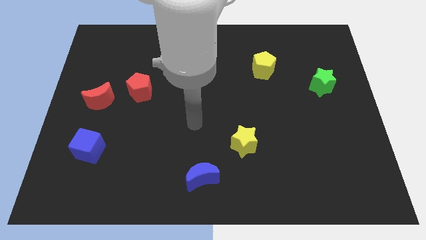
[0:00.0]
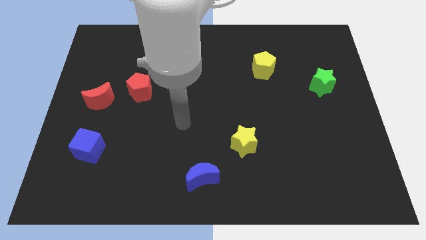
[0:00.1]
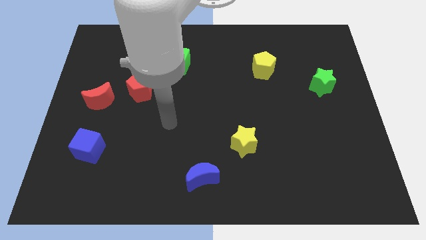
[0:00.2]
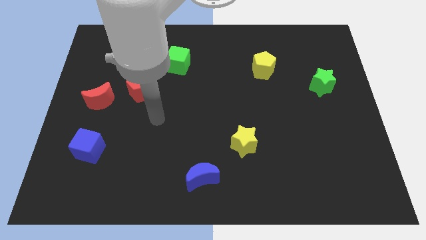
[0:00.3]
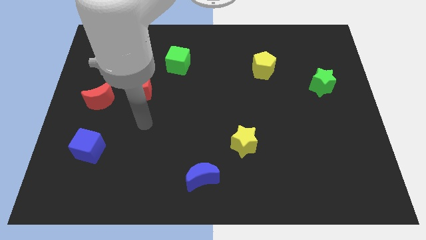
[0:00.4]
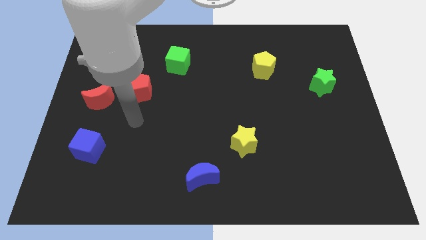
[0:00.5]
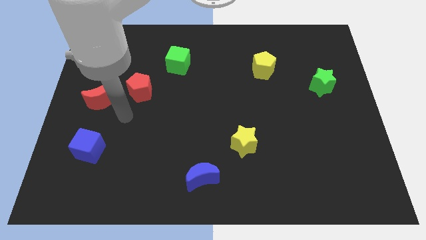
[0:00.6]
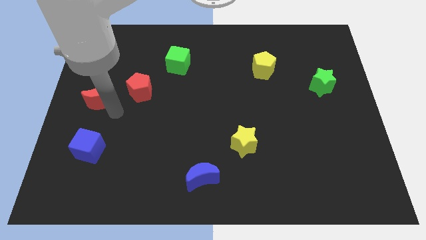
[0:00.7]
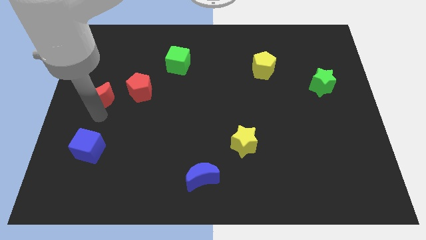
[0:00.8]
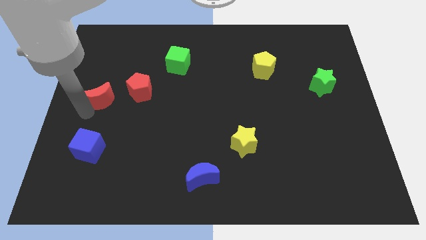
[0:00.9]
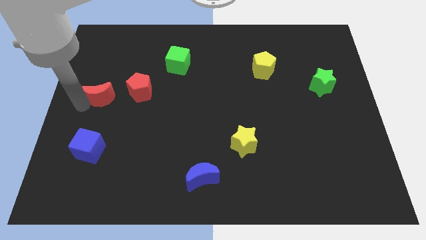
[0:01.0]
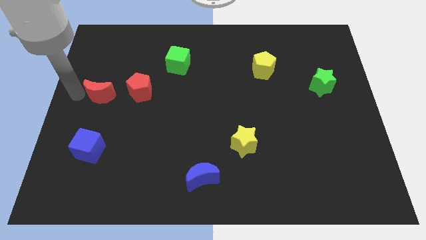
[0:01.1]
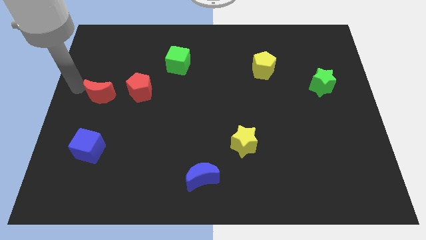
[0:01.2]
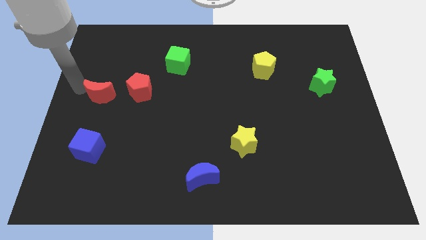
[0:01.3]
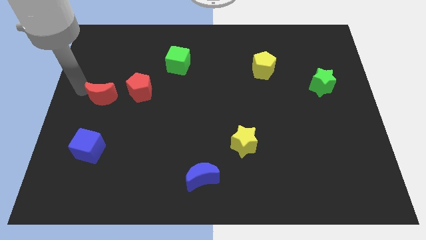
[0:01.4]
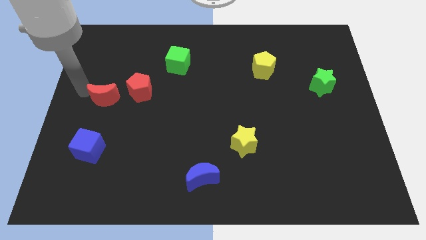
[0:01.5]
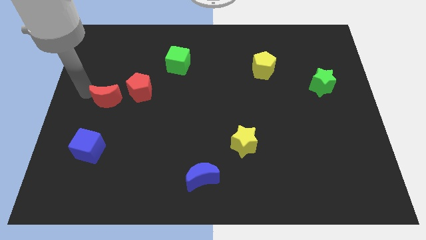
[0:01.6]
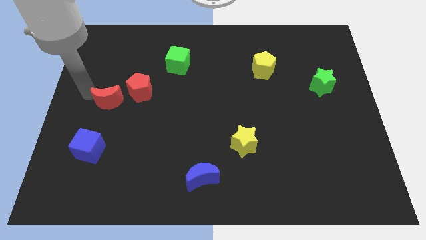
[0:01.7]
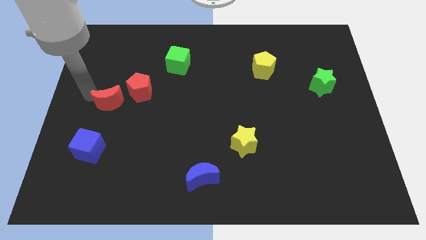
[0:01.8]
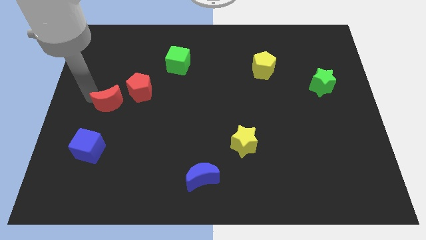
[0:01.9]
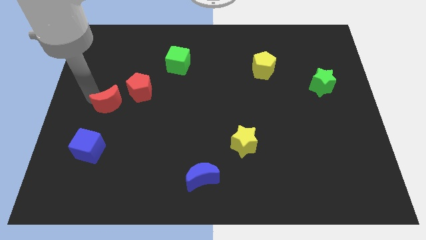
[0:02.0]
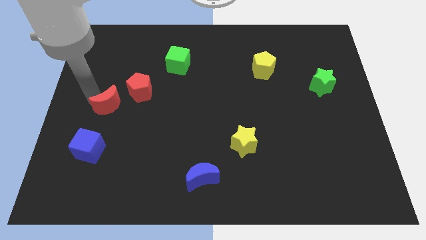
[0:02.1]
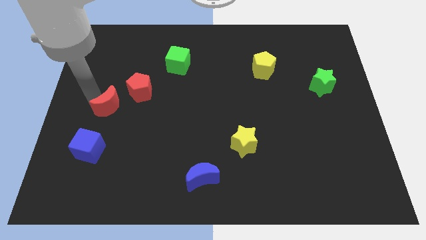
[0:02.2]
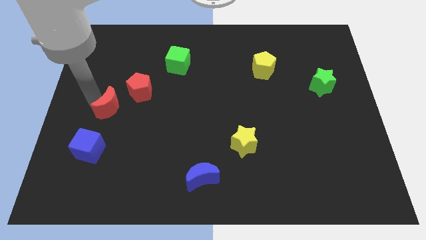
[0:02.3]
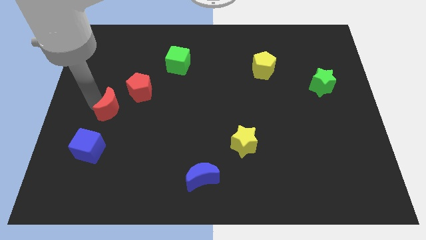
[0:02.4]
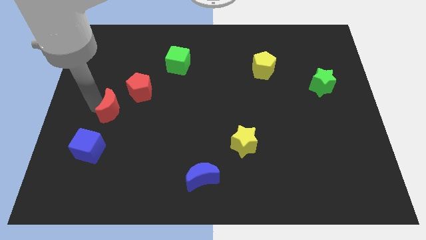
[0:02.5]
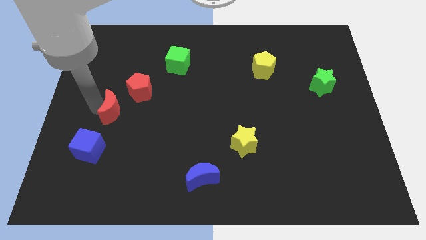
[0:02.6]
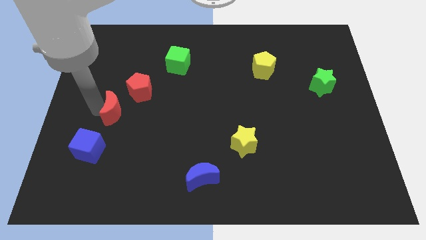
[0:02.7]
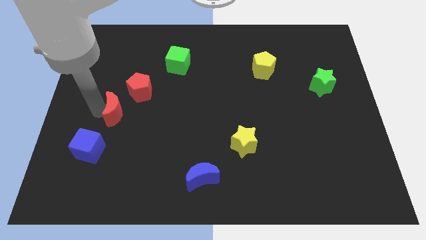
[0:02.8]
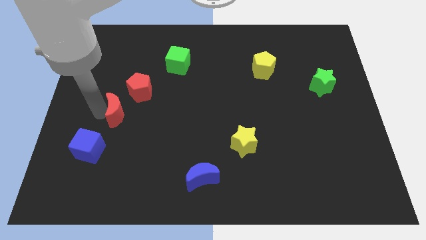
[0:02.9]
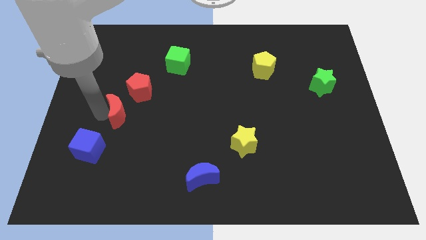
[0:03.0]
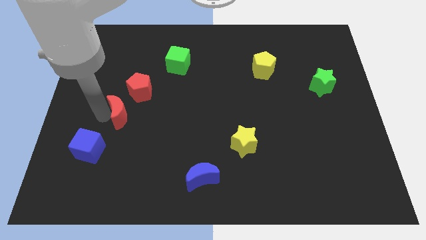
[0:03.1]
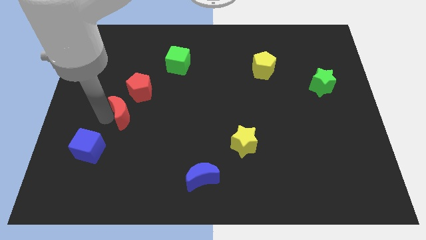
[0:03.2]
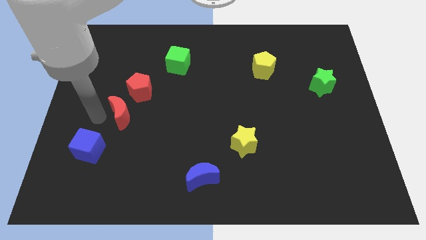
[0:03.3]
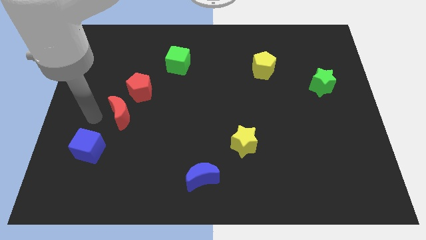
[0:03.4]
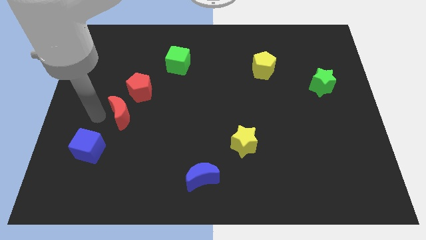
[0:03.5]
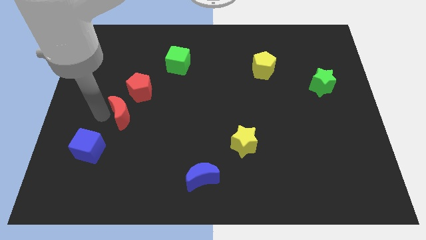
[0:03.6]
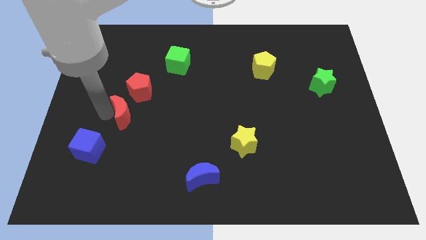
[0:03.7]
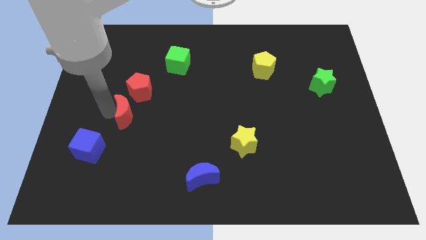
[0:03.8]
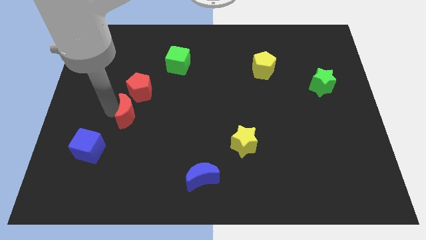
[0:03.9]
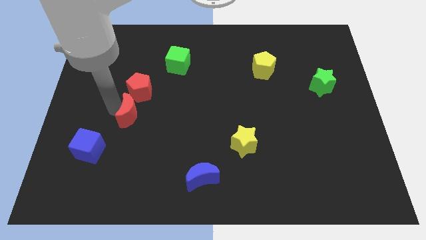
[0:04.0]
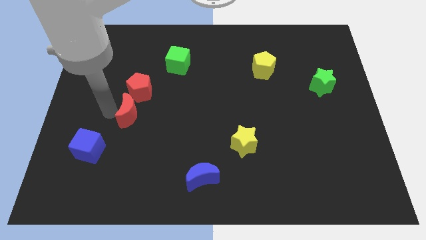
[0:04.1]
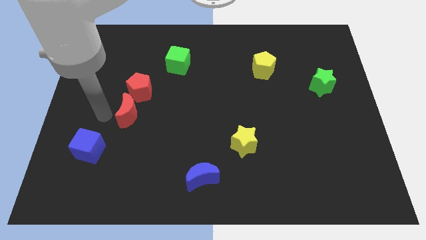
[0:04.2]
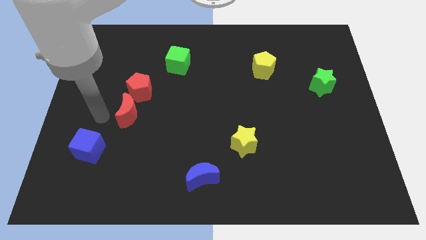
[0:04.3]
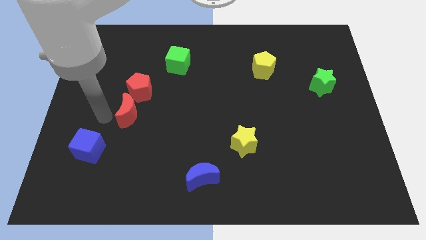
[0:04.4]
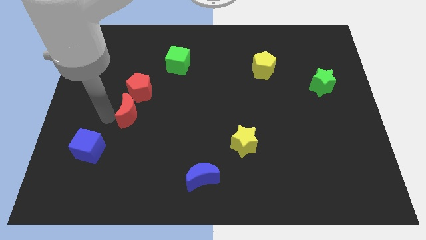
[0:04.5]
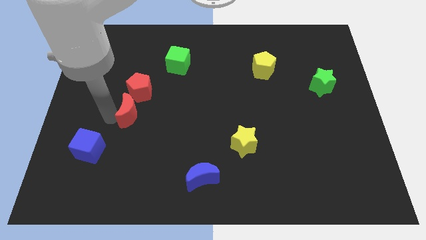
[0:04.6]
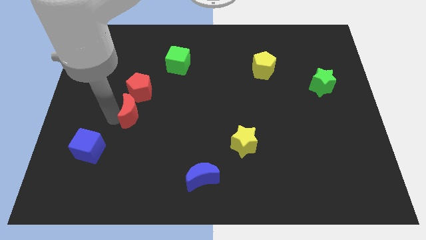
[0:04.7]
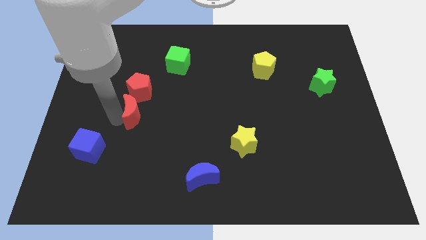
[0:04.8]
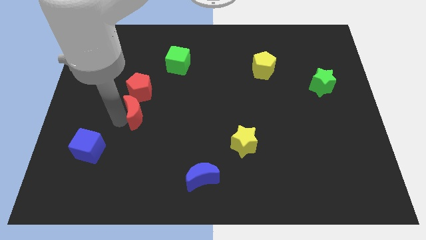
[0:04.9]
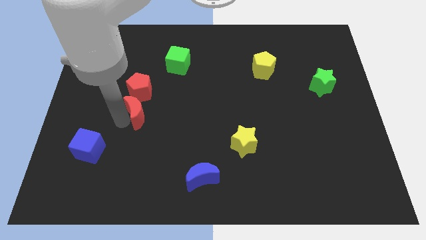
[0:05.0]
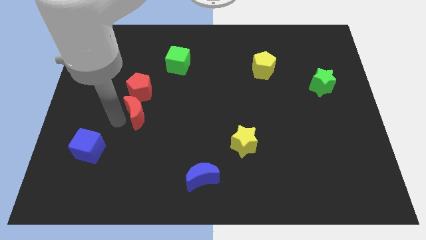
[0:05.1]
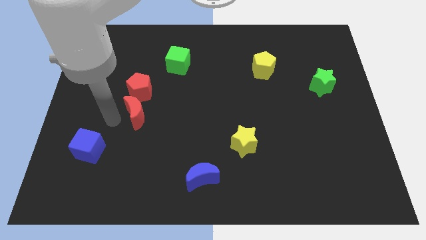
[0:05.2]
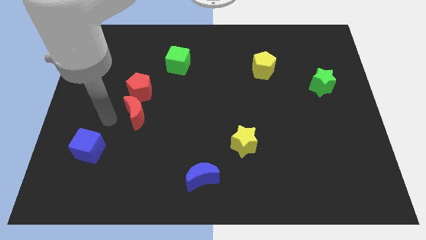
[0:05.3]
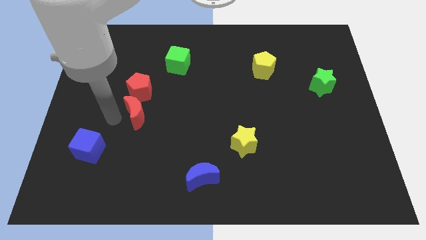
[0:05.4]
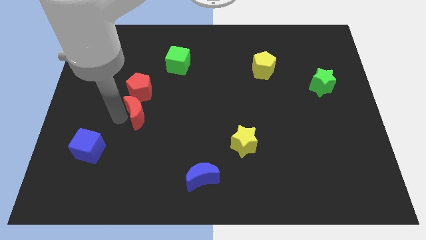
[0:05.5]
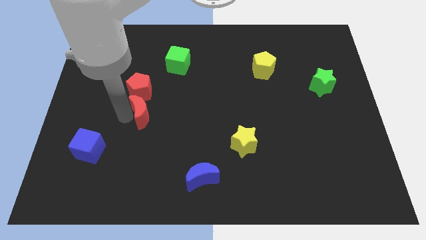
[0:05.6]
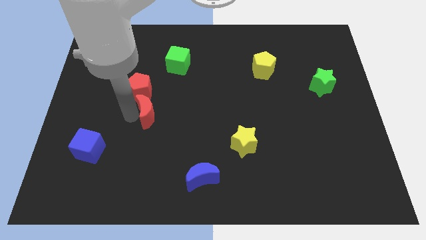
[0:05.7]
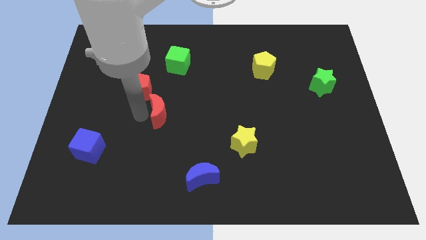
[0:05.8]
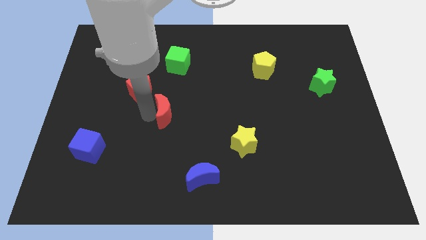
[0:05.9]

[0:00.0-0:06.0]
put the red moon to the middle
